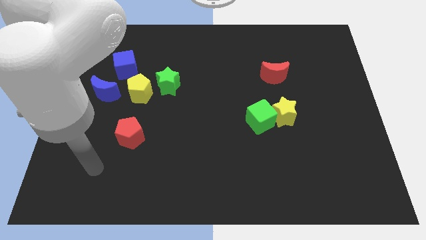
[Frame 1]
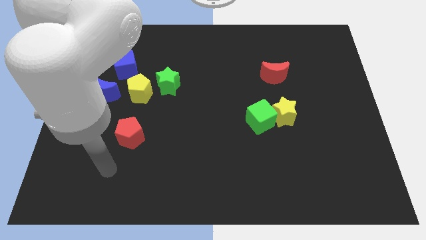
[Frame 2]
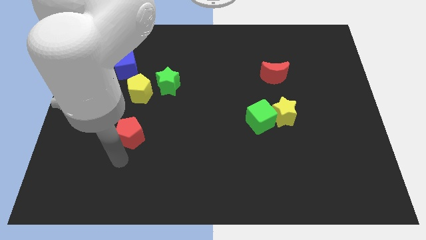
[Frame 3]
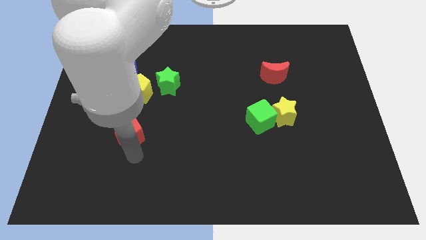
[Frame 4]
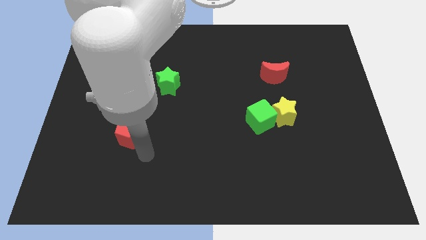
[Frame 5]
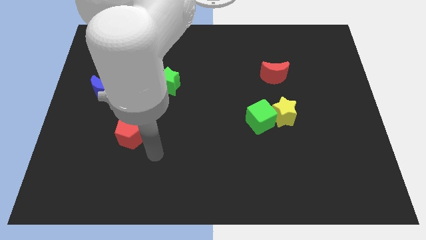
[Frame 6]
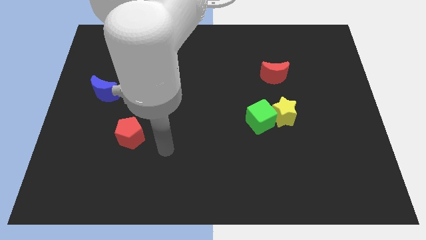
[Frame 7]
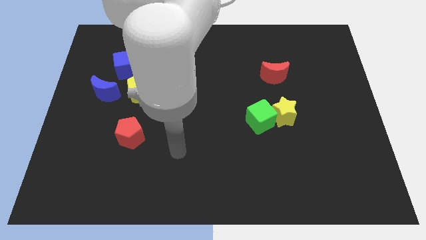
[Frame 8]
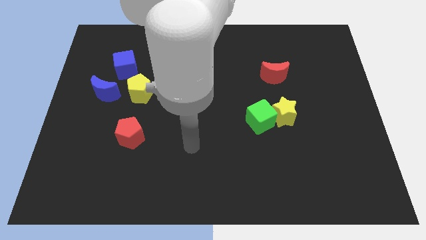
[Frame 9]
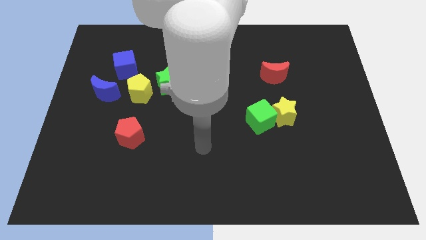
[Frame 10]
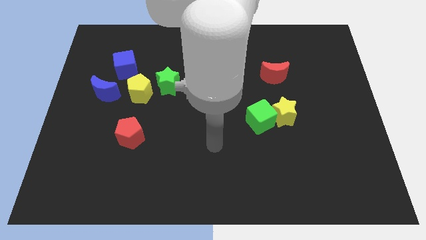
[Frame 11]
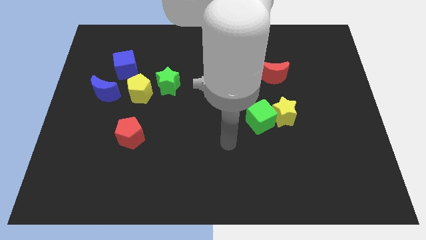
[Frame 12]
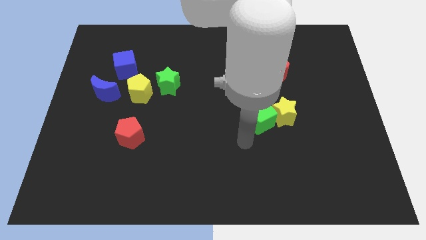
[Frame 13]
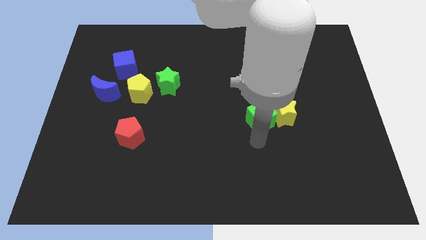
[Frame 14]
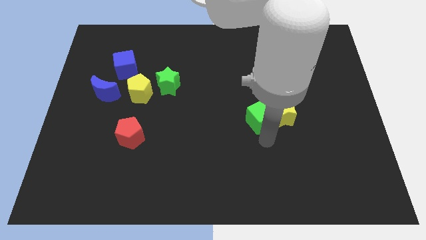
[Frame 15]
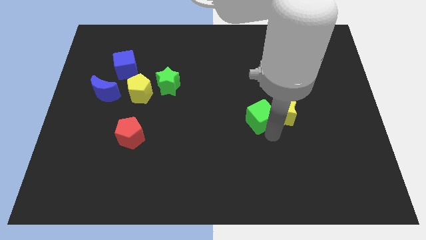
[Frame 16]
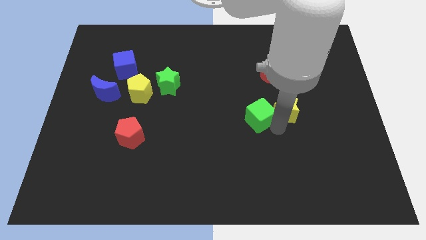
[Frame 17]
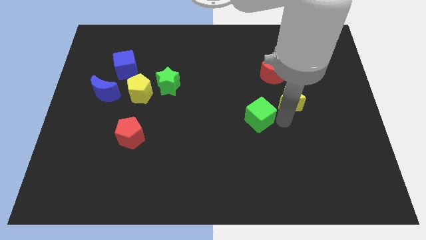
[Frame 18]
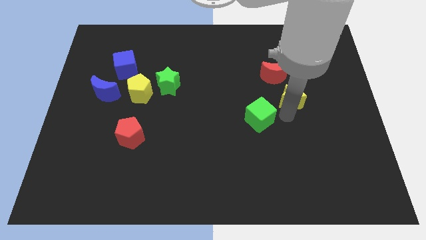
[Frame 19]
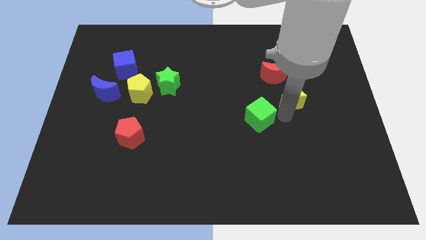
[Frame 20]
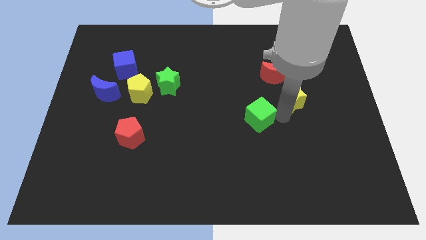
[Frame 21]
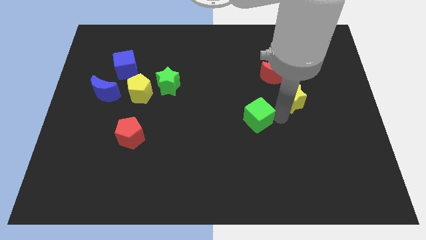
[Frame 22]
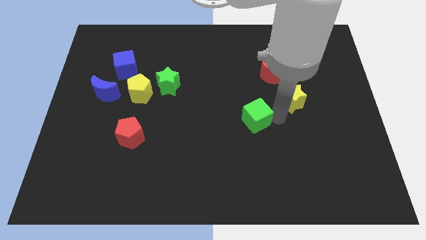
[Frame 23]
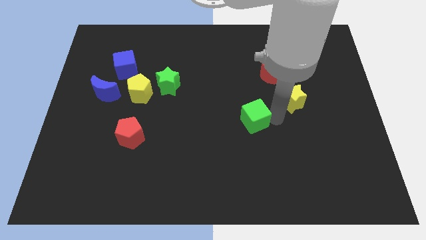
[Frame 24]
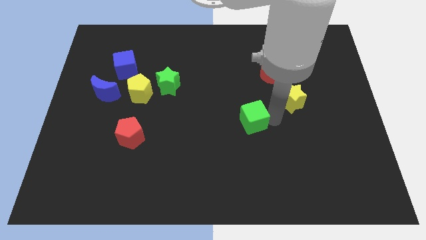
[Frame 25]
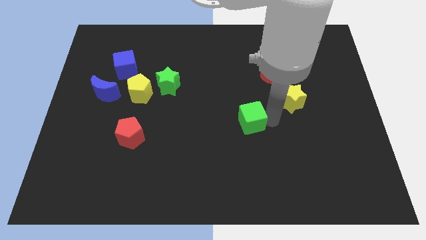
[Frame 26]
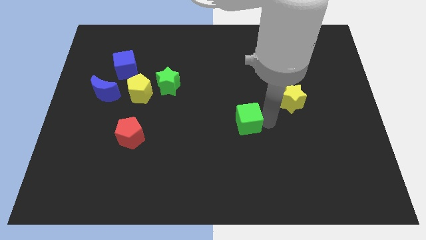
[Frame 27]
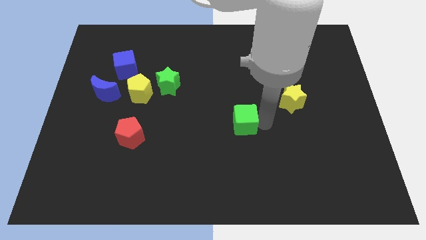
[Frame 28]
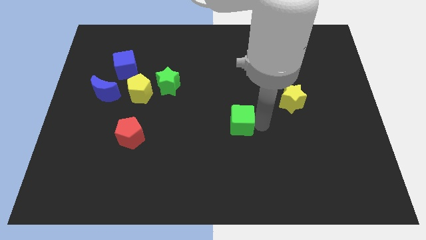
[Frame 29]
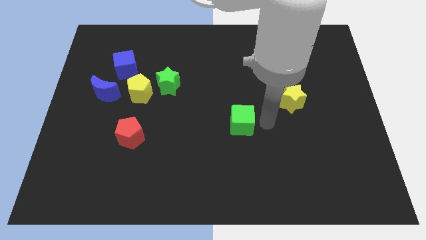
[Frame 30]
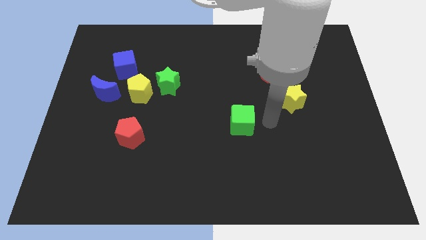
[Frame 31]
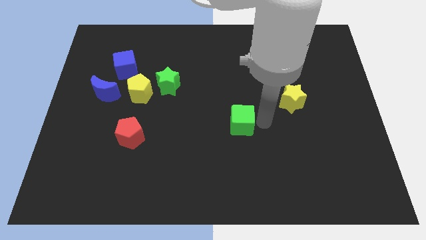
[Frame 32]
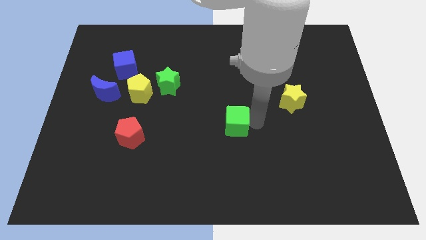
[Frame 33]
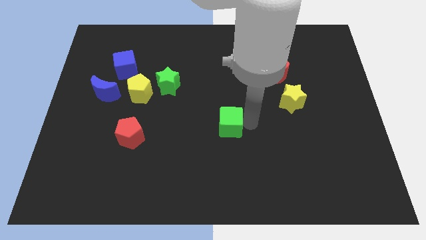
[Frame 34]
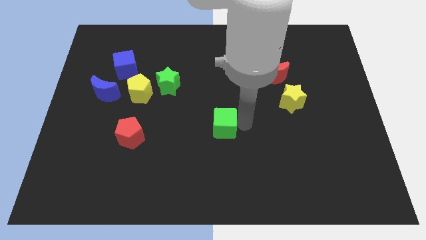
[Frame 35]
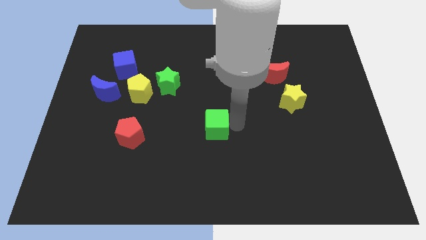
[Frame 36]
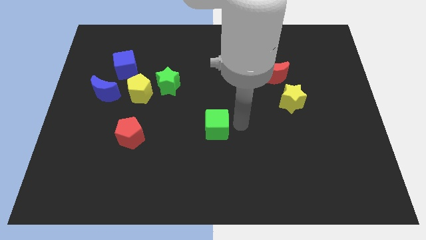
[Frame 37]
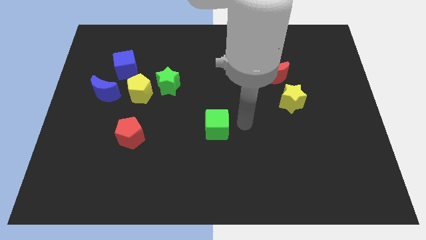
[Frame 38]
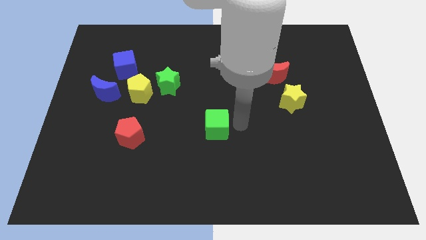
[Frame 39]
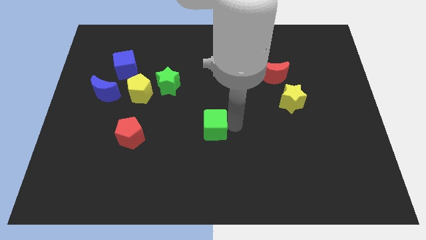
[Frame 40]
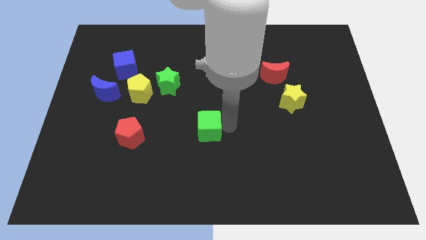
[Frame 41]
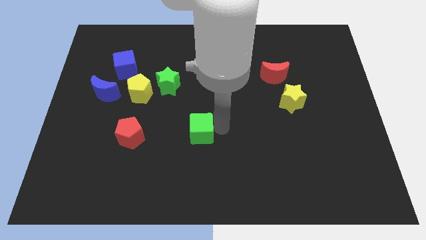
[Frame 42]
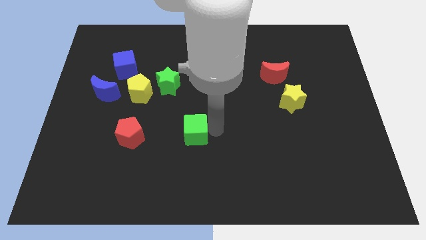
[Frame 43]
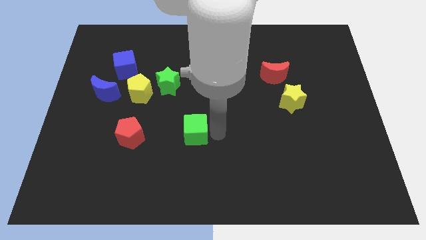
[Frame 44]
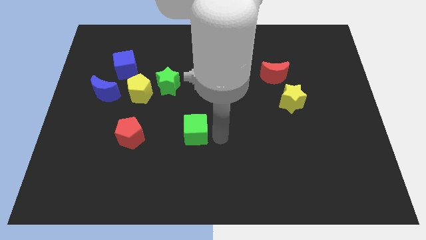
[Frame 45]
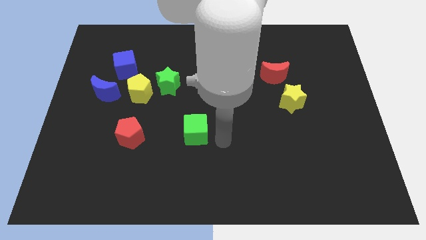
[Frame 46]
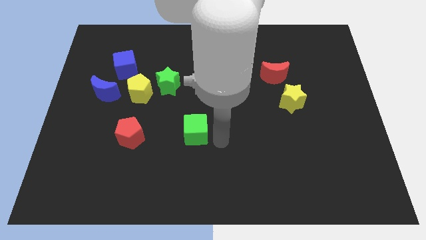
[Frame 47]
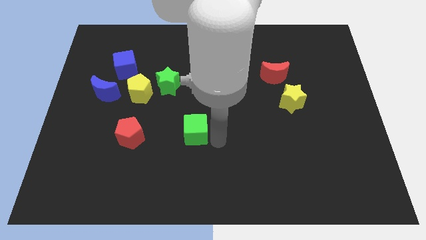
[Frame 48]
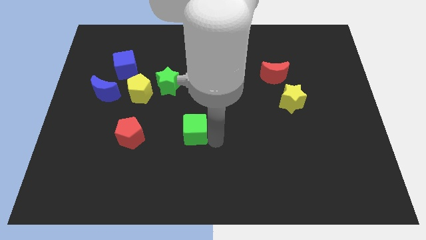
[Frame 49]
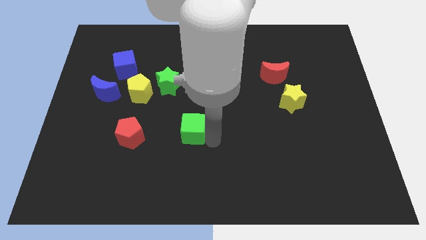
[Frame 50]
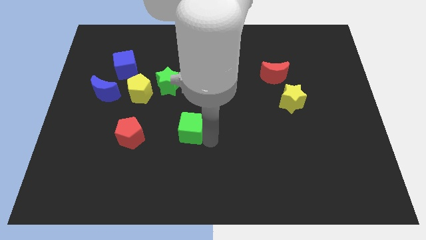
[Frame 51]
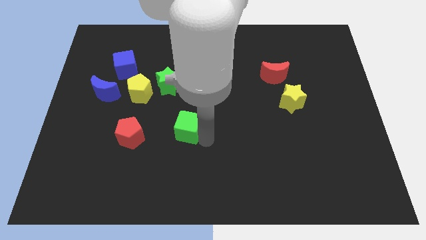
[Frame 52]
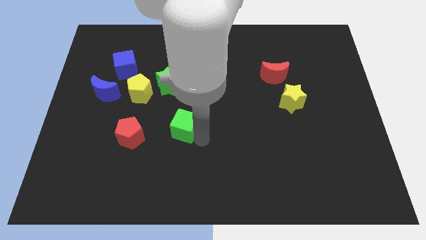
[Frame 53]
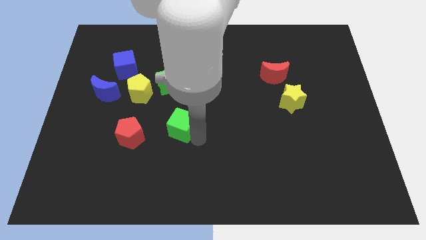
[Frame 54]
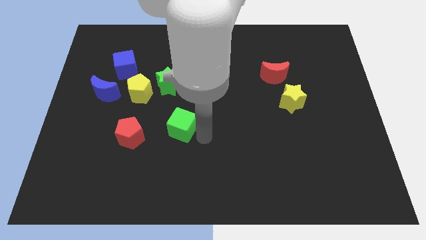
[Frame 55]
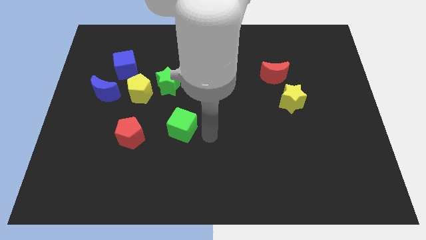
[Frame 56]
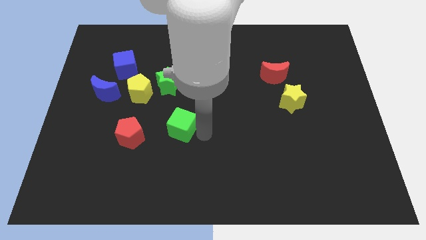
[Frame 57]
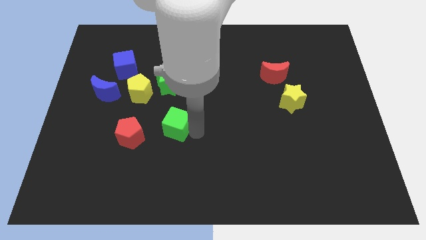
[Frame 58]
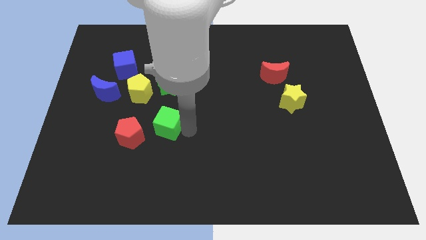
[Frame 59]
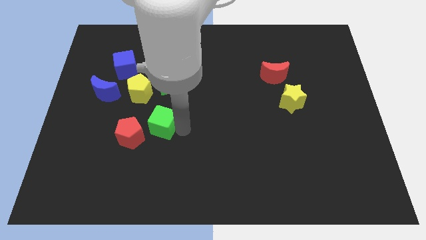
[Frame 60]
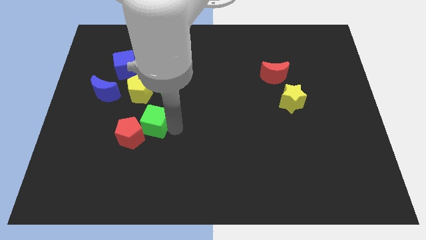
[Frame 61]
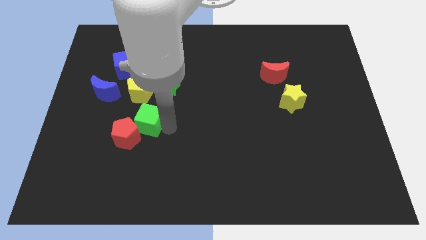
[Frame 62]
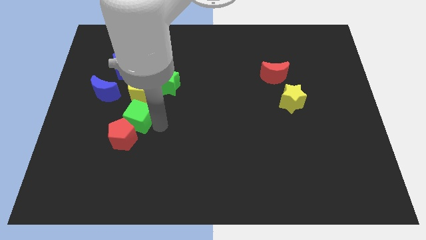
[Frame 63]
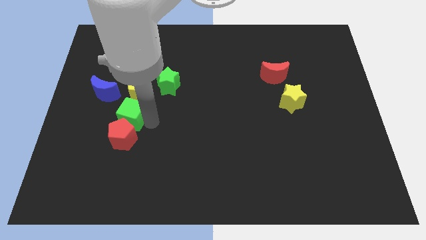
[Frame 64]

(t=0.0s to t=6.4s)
put the green cube to the top left of the red pentagon
